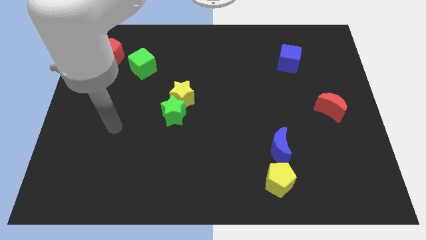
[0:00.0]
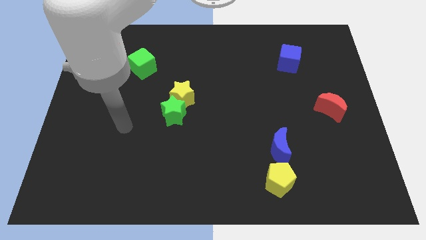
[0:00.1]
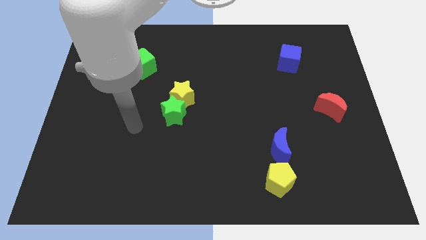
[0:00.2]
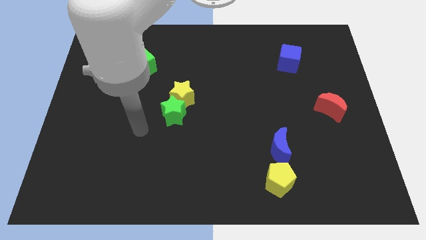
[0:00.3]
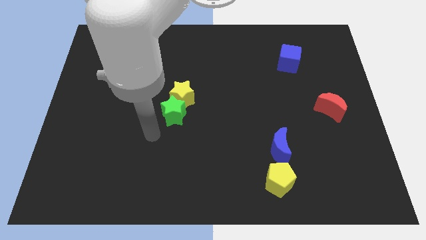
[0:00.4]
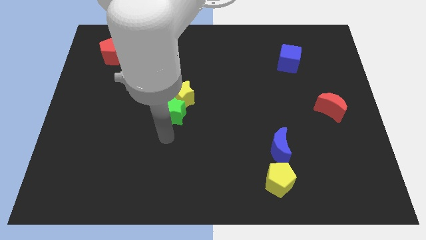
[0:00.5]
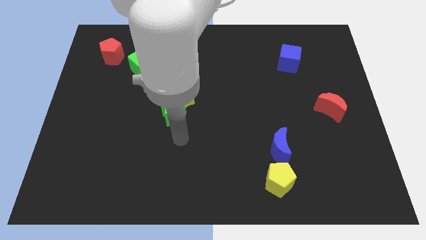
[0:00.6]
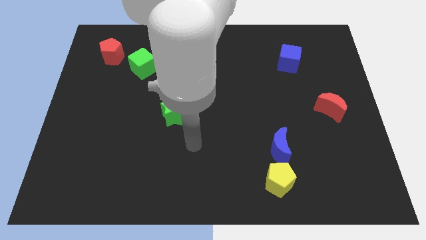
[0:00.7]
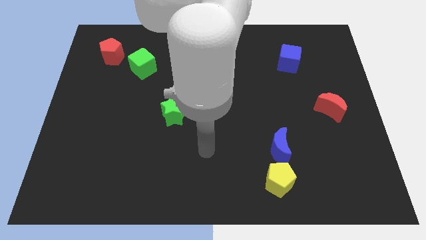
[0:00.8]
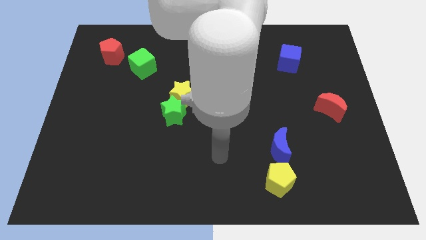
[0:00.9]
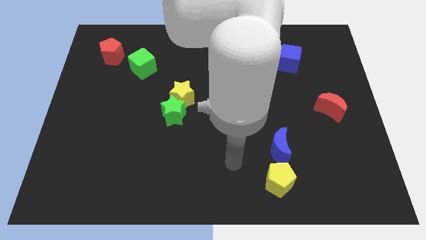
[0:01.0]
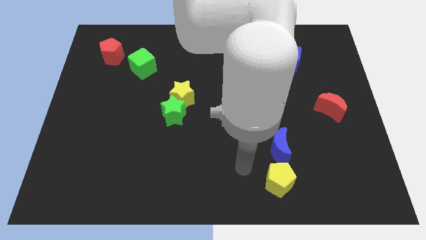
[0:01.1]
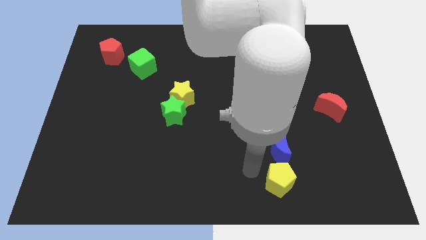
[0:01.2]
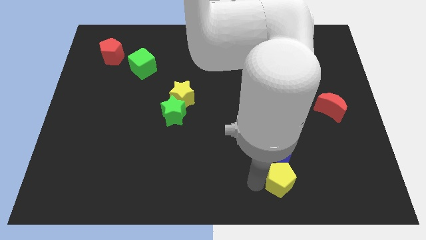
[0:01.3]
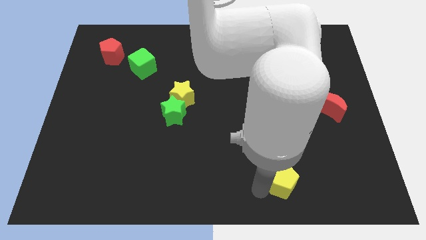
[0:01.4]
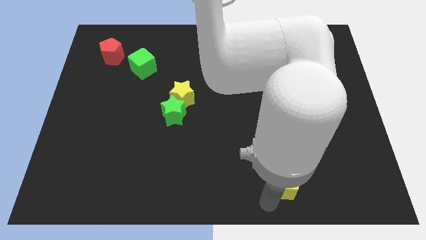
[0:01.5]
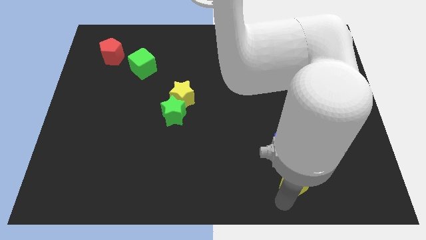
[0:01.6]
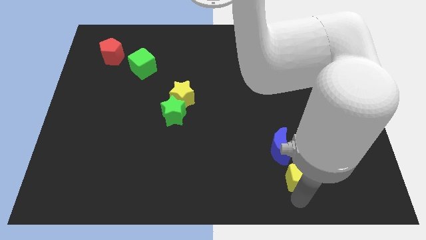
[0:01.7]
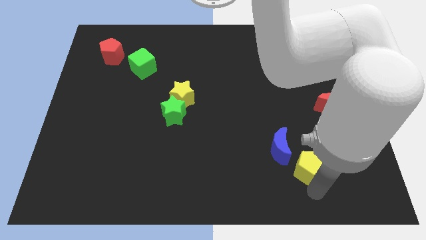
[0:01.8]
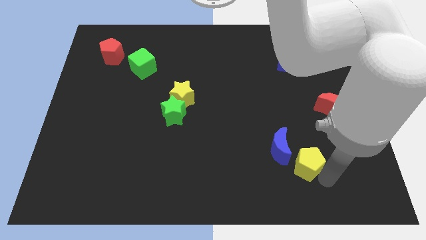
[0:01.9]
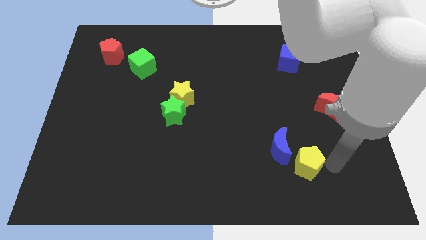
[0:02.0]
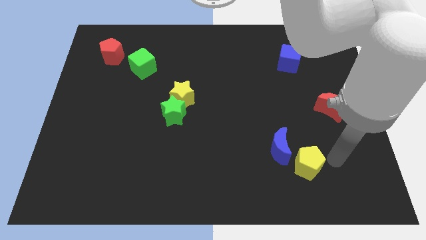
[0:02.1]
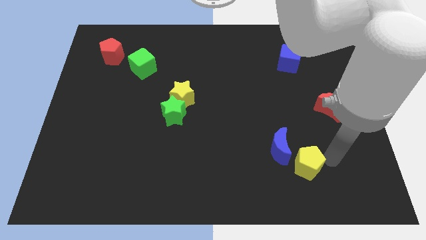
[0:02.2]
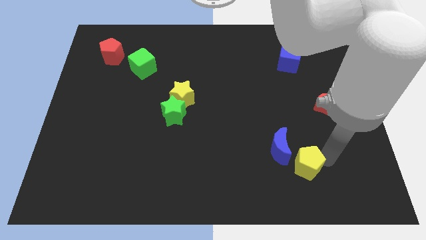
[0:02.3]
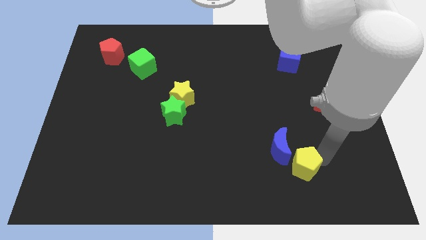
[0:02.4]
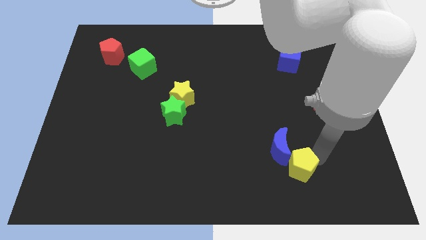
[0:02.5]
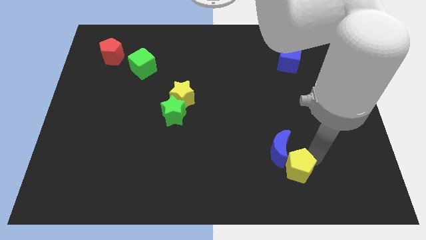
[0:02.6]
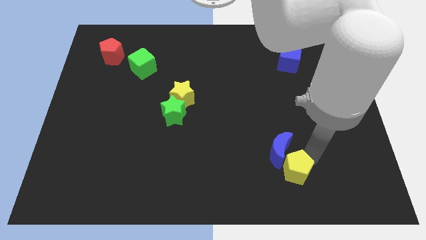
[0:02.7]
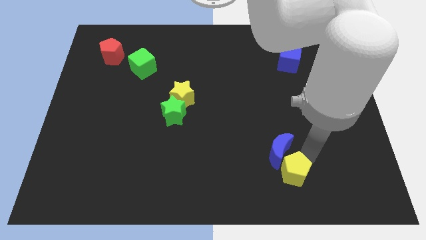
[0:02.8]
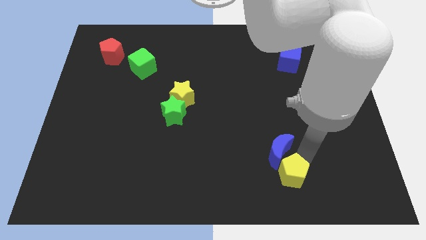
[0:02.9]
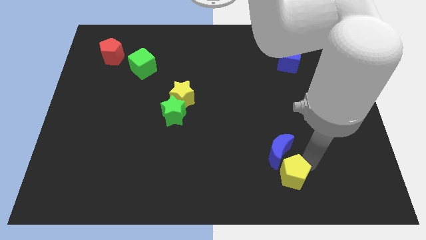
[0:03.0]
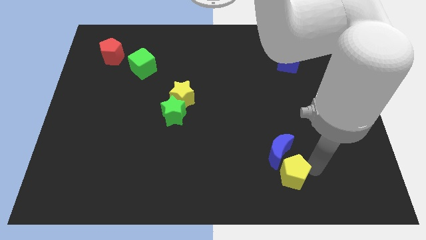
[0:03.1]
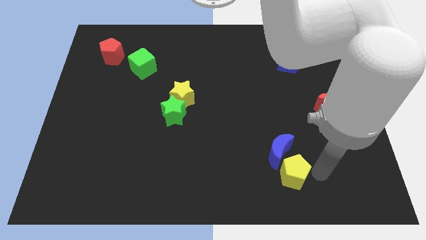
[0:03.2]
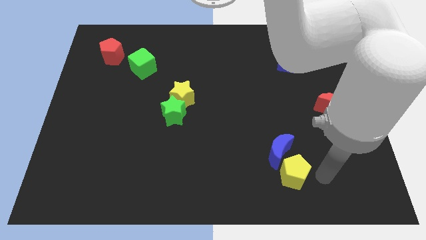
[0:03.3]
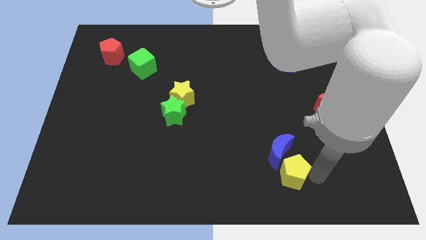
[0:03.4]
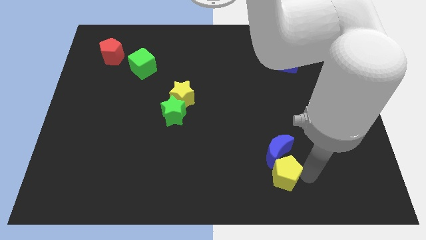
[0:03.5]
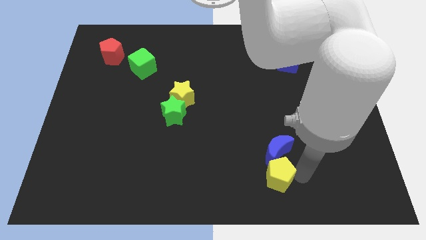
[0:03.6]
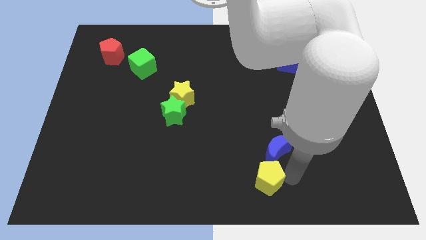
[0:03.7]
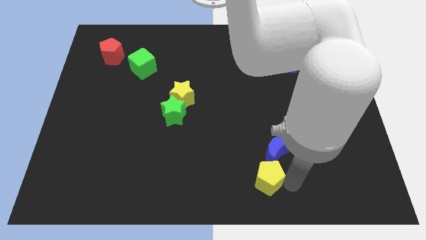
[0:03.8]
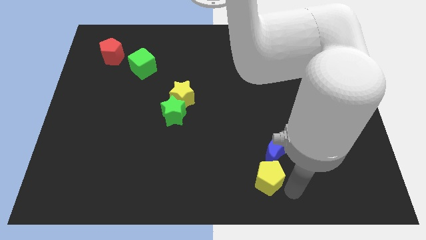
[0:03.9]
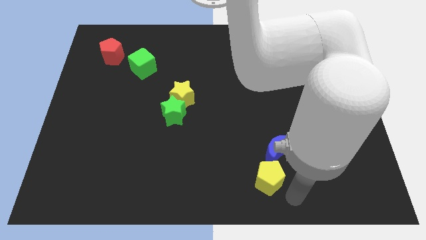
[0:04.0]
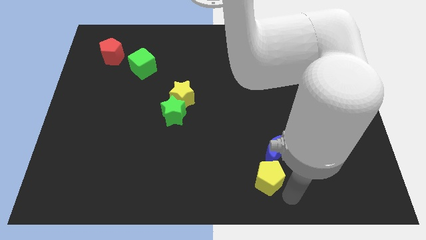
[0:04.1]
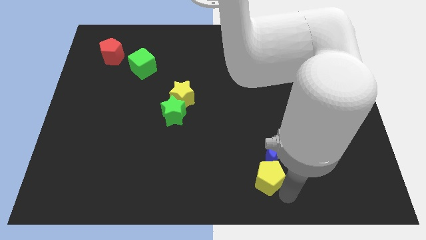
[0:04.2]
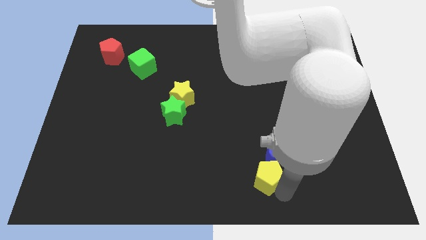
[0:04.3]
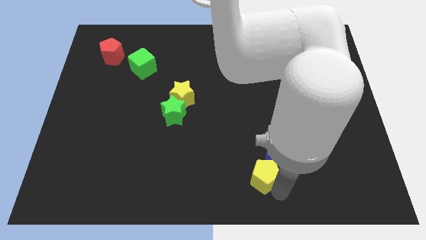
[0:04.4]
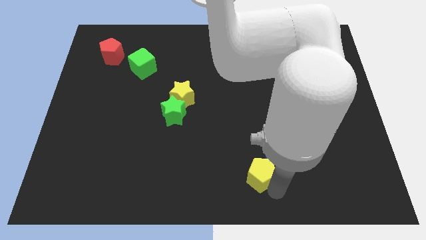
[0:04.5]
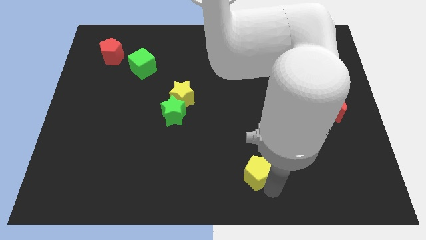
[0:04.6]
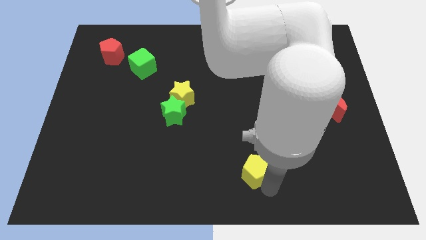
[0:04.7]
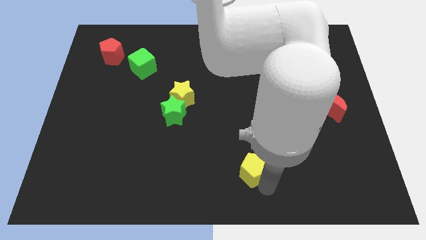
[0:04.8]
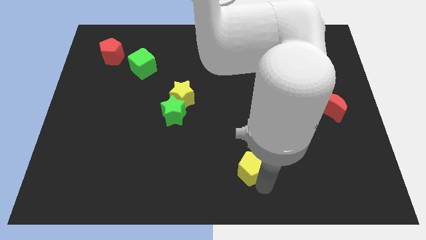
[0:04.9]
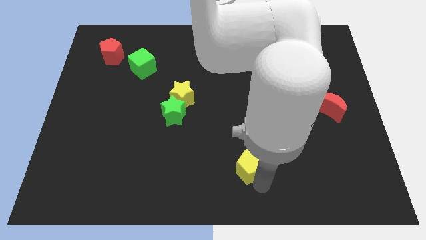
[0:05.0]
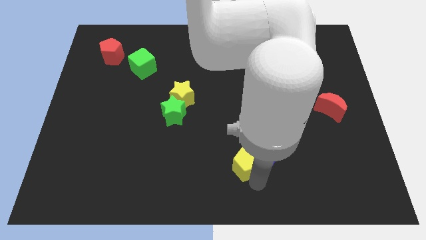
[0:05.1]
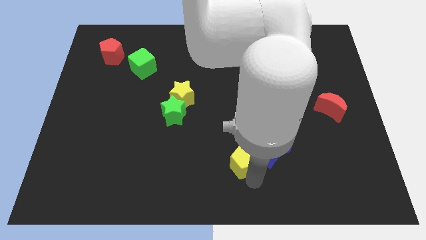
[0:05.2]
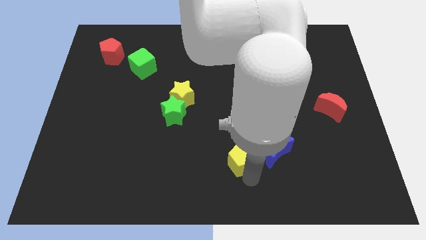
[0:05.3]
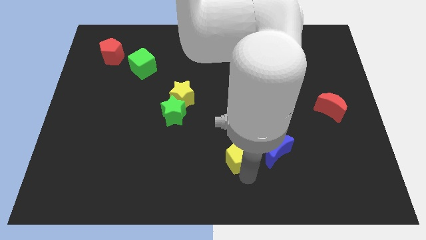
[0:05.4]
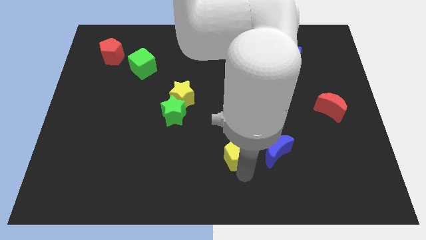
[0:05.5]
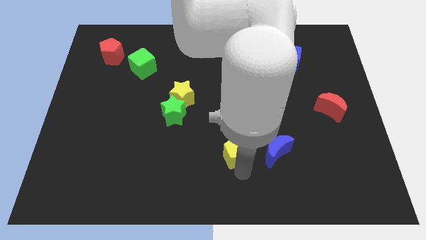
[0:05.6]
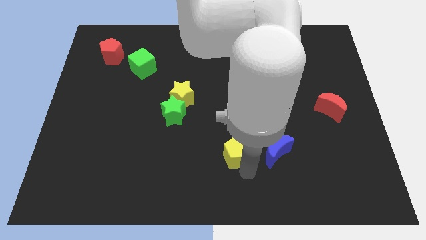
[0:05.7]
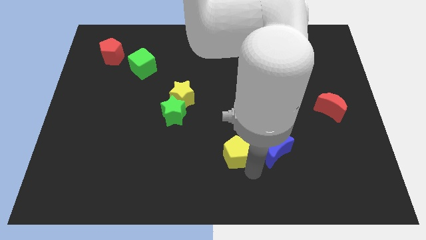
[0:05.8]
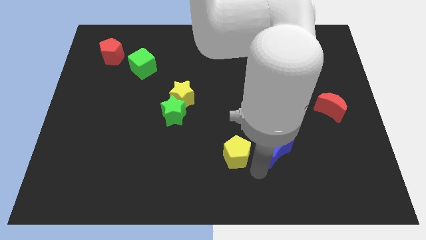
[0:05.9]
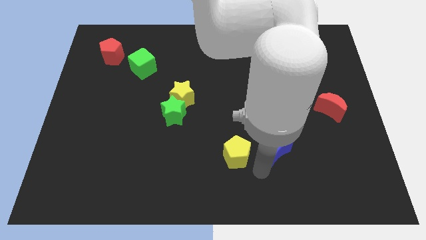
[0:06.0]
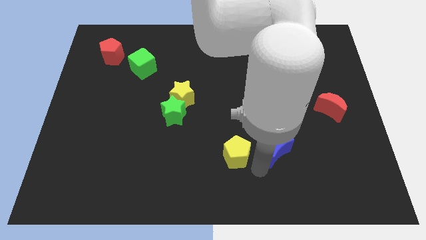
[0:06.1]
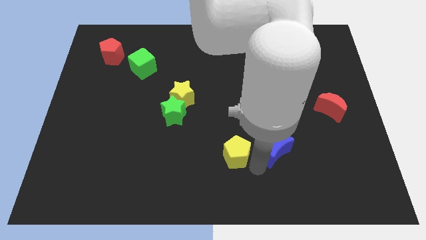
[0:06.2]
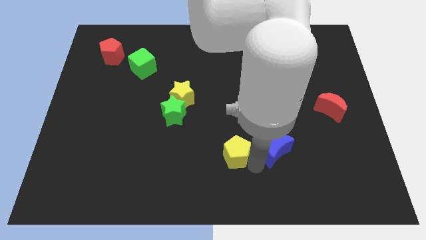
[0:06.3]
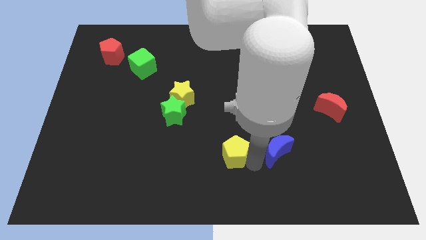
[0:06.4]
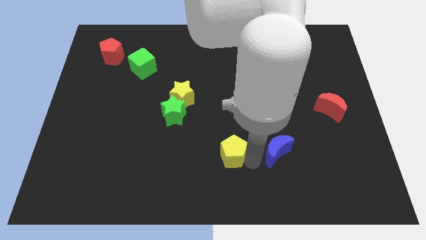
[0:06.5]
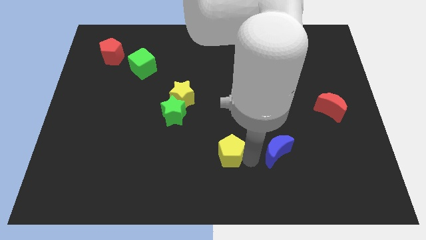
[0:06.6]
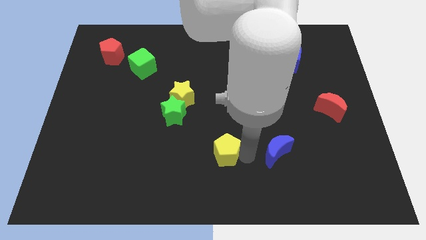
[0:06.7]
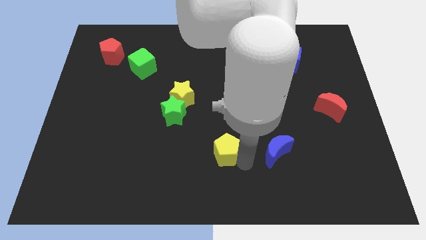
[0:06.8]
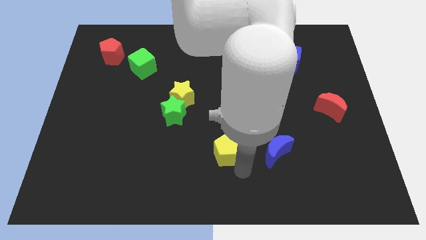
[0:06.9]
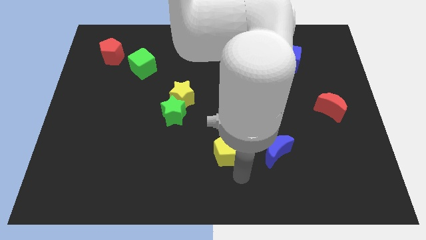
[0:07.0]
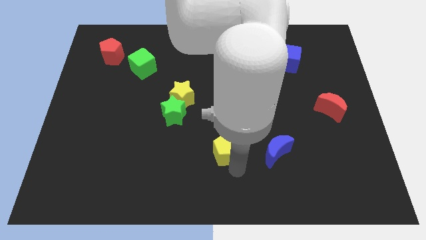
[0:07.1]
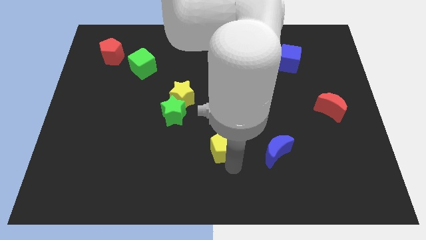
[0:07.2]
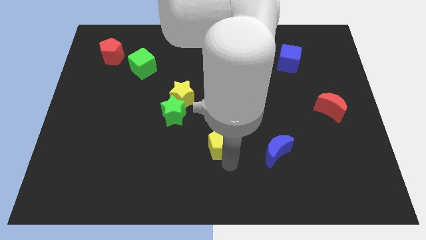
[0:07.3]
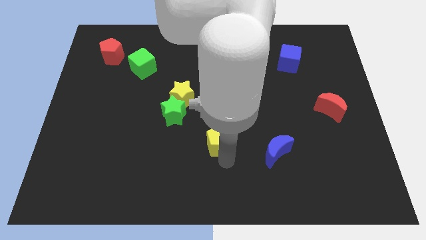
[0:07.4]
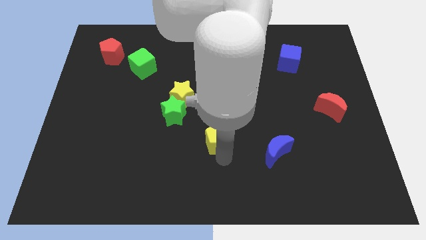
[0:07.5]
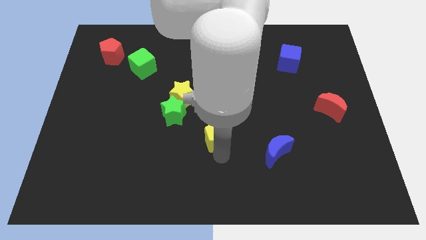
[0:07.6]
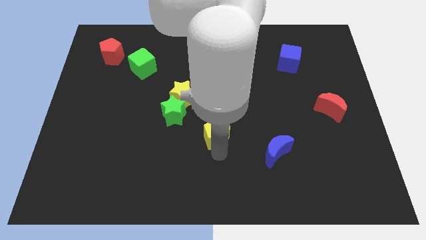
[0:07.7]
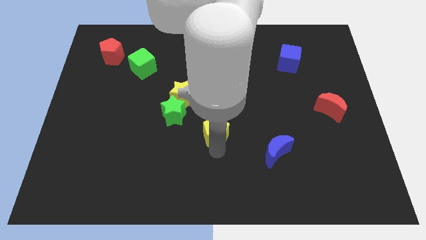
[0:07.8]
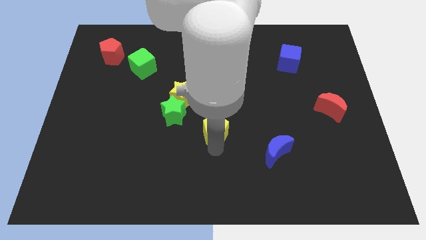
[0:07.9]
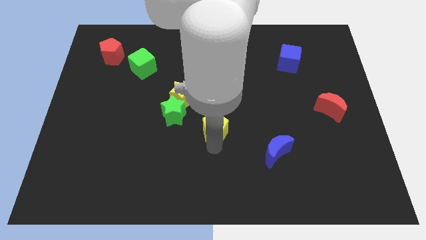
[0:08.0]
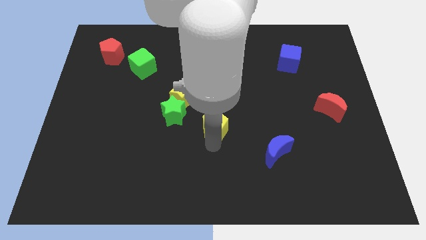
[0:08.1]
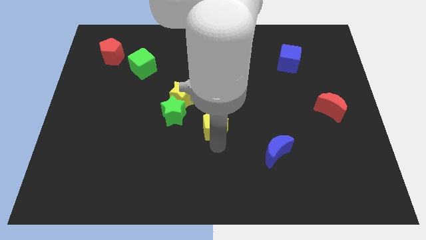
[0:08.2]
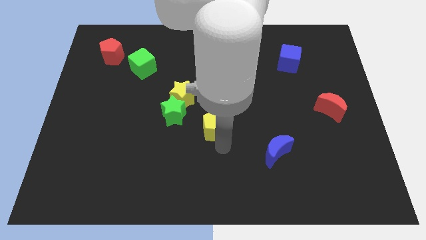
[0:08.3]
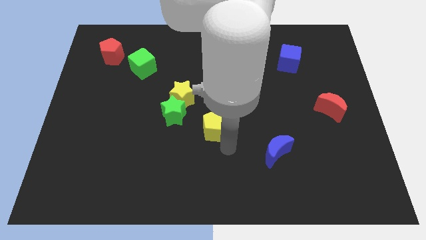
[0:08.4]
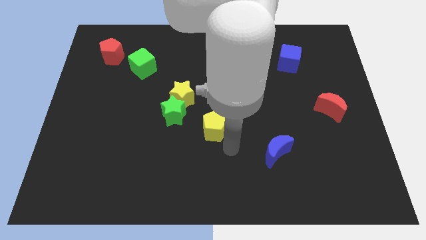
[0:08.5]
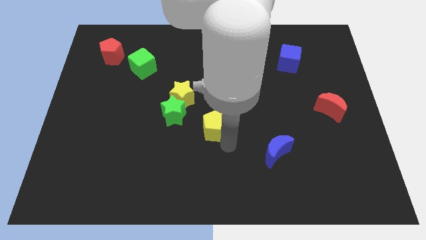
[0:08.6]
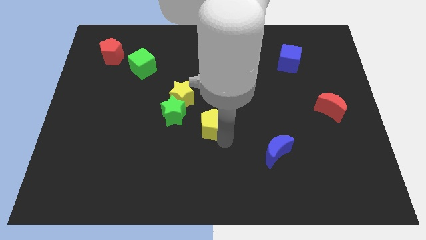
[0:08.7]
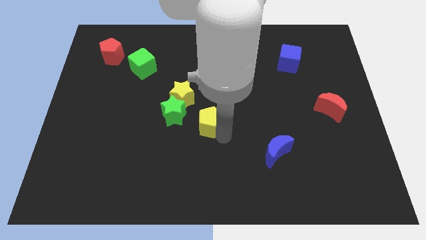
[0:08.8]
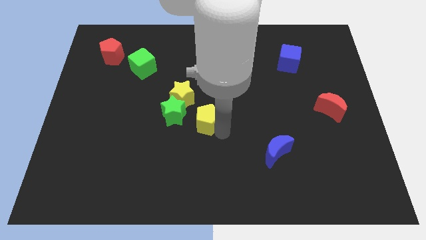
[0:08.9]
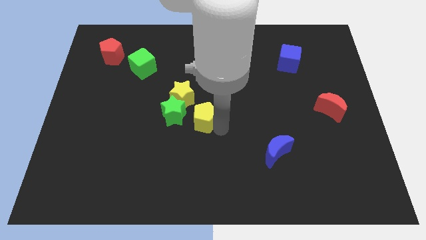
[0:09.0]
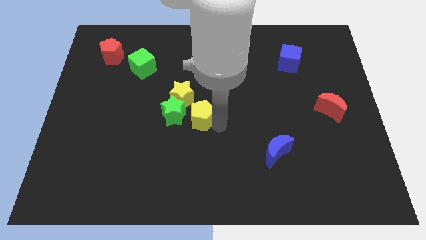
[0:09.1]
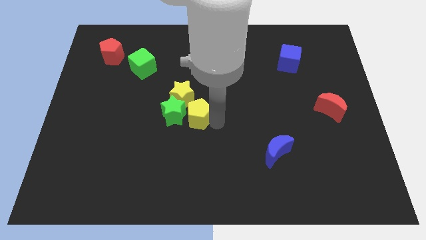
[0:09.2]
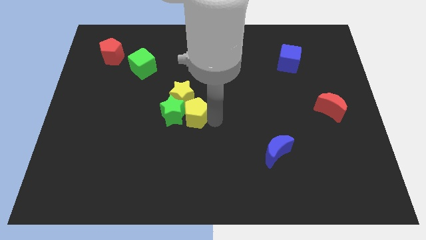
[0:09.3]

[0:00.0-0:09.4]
push the yellow pentagon towards the yellow star
